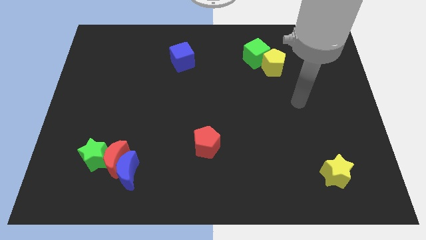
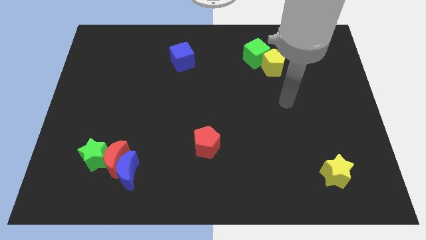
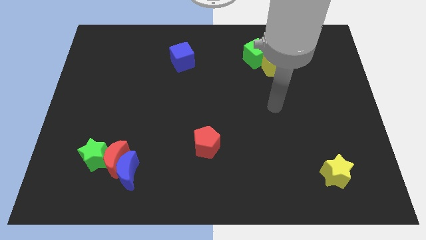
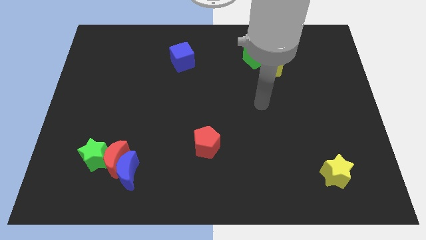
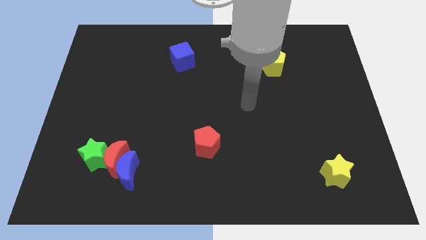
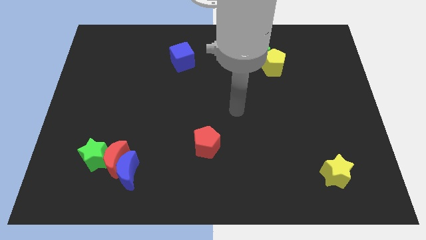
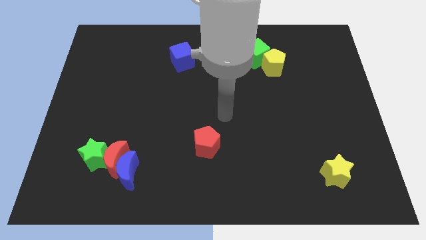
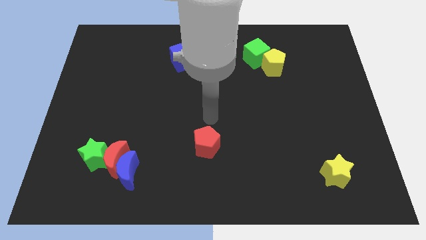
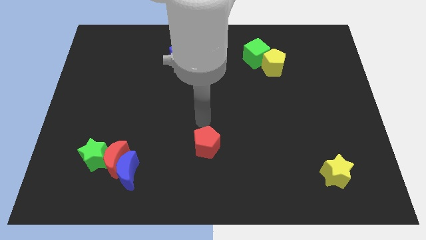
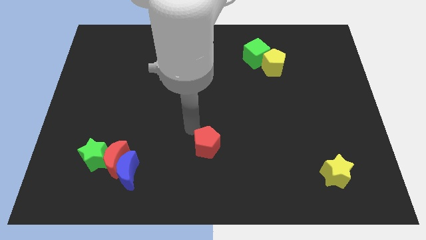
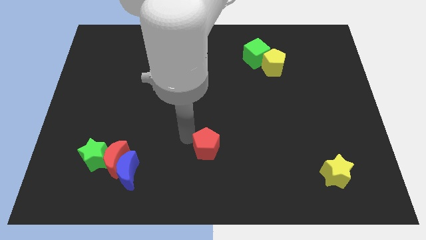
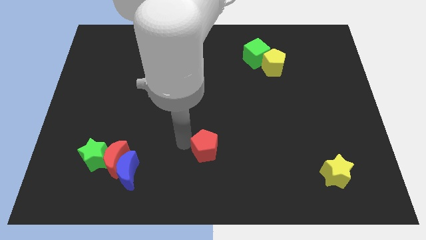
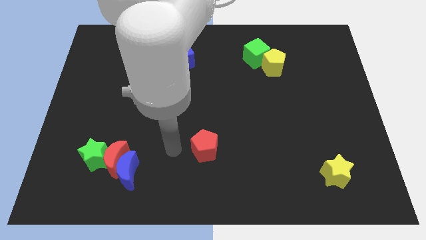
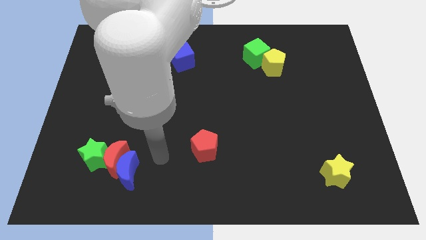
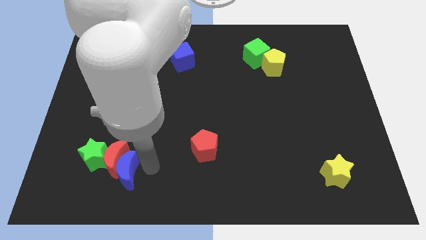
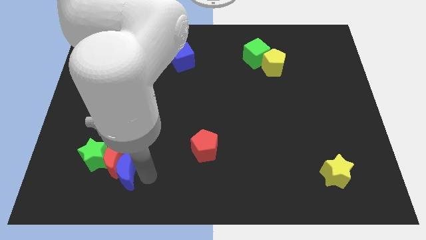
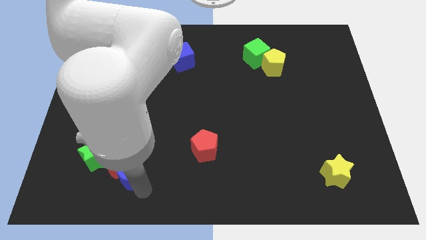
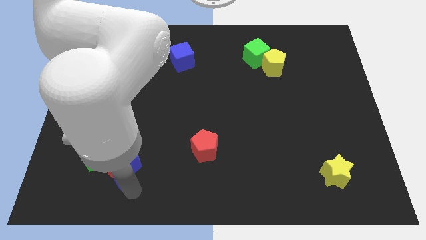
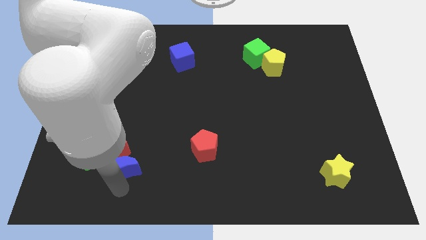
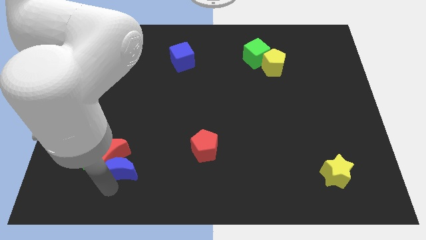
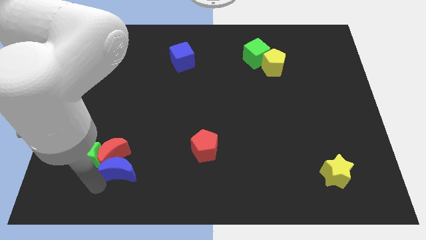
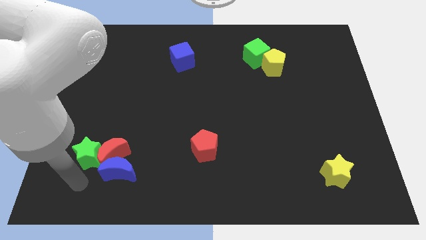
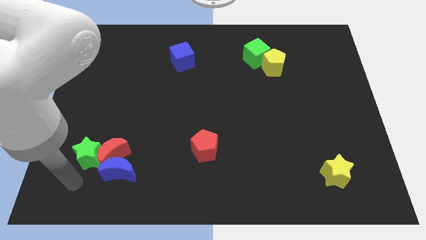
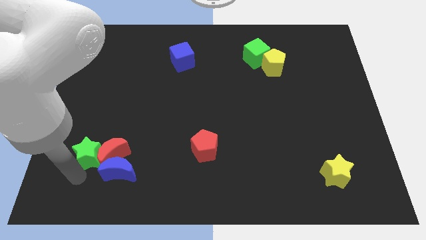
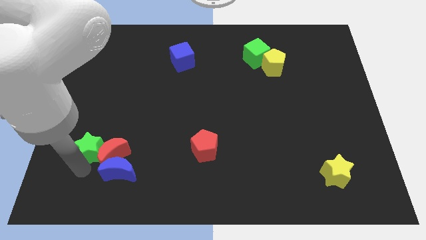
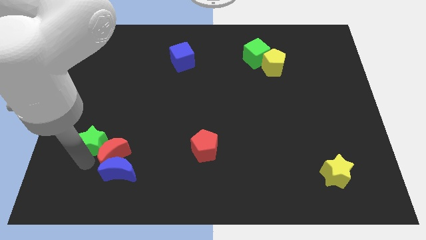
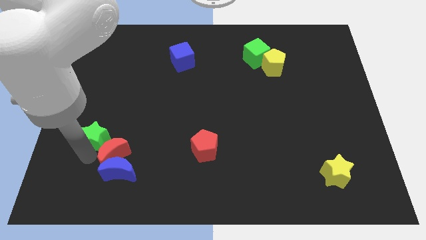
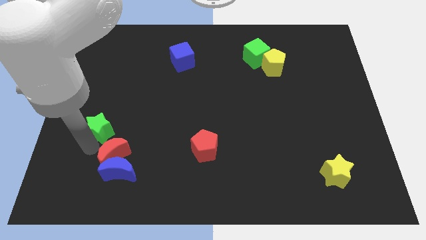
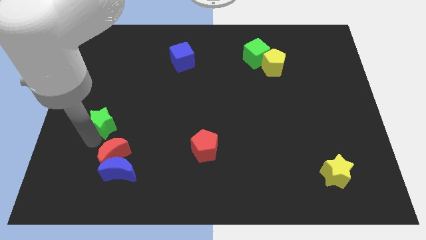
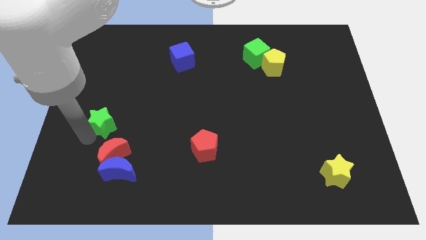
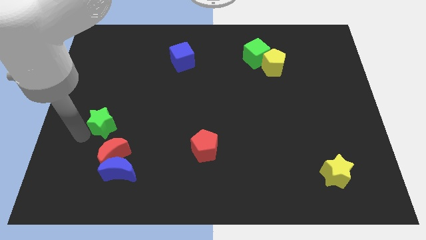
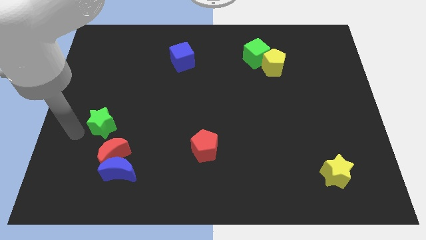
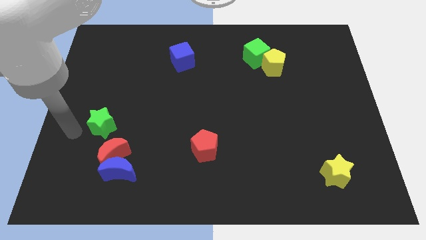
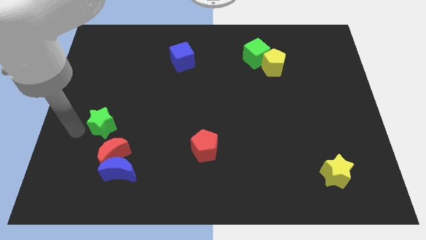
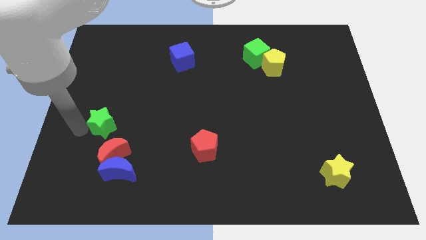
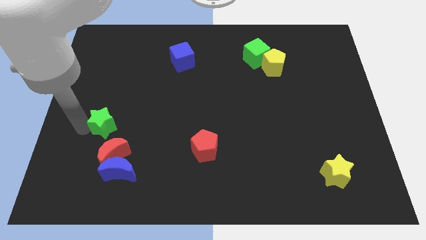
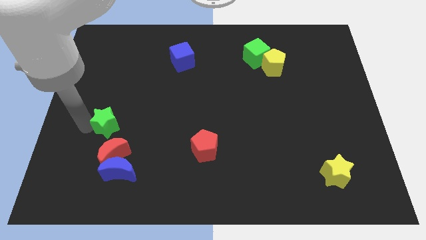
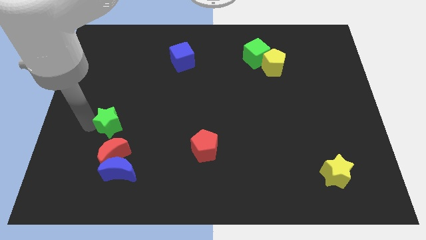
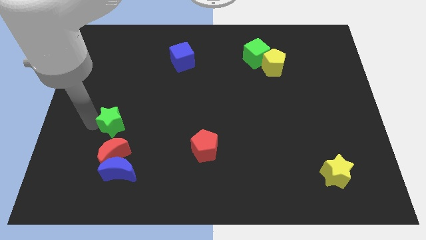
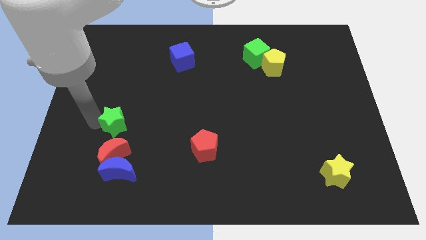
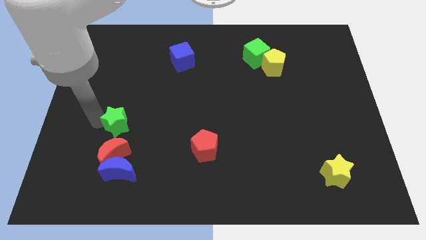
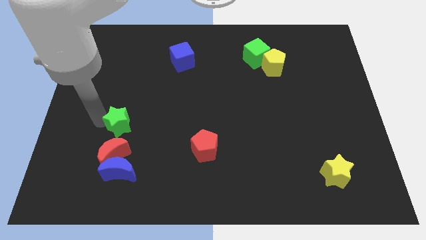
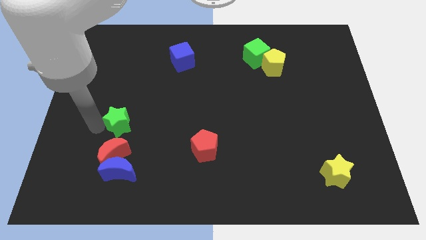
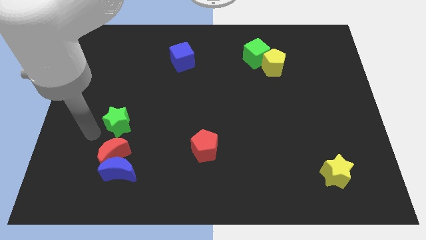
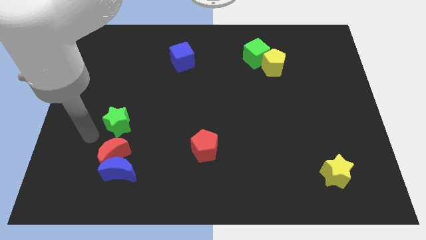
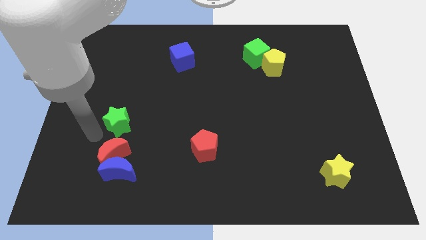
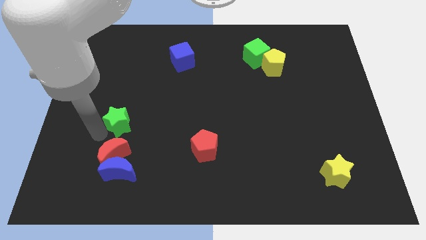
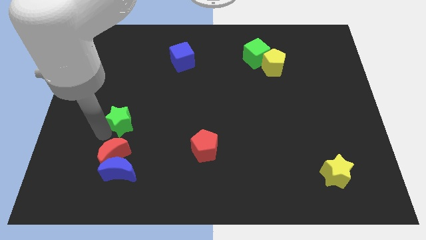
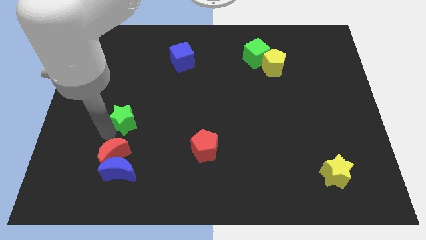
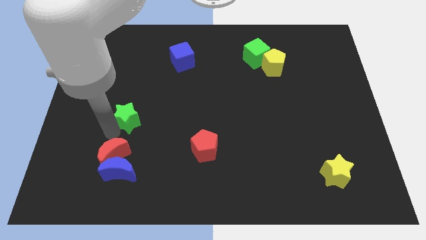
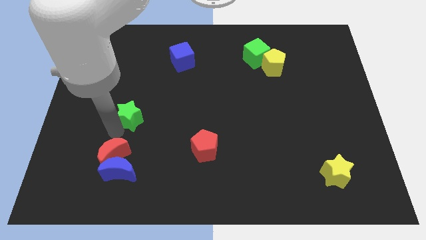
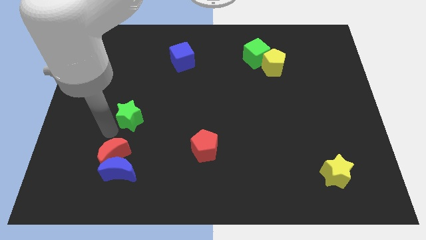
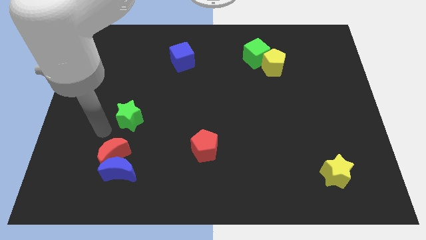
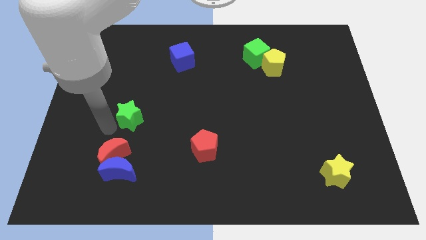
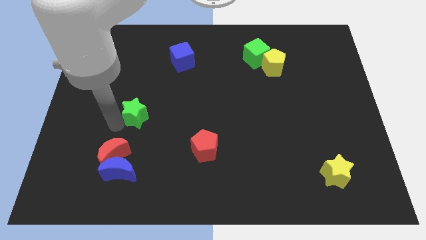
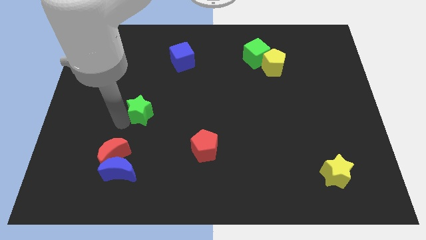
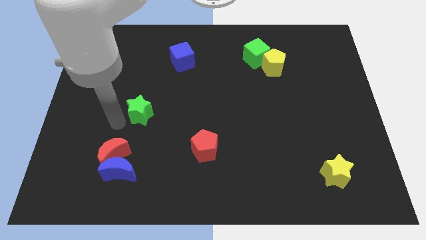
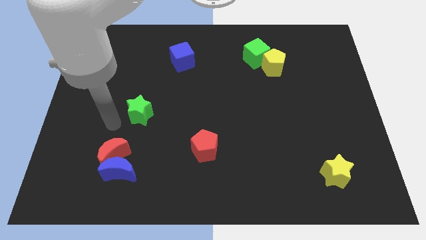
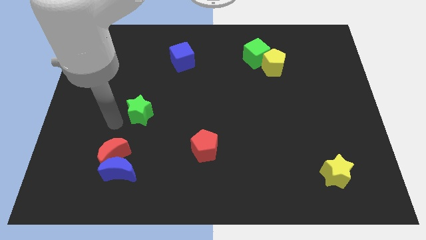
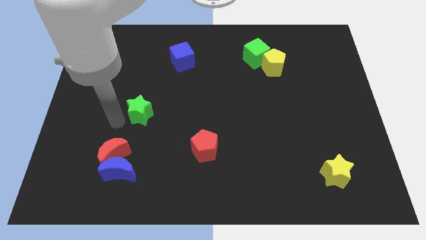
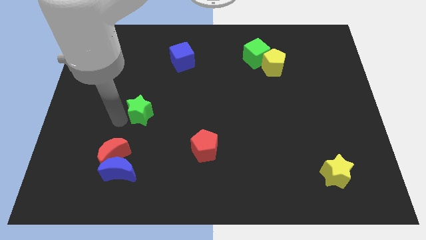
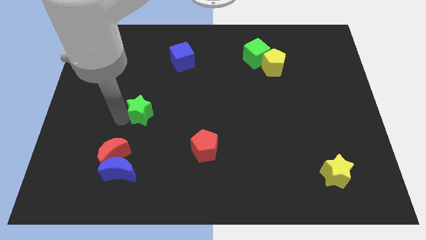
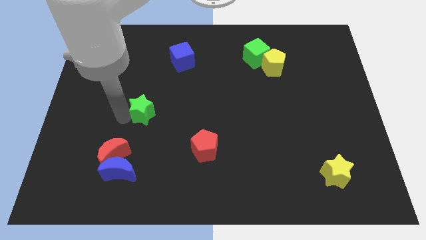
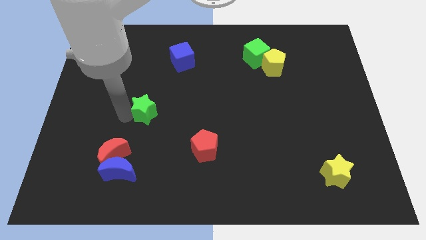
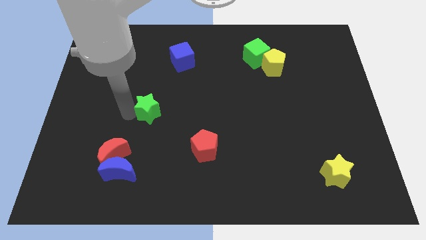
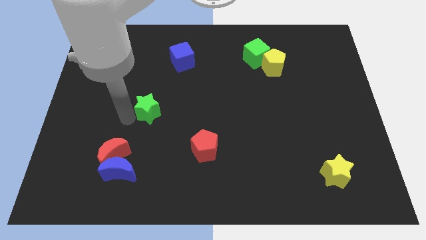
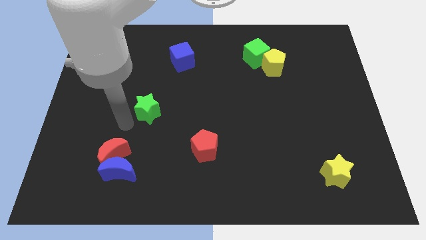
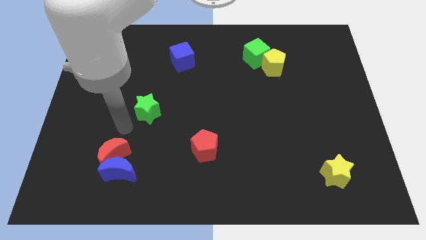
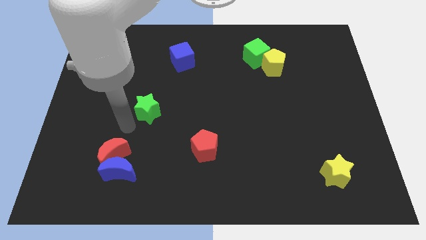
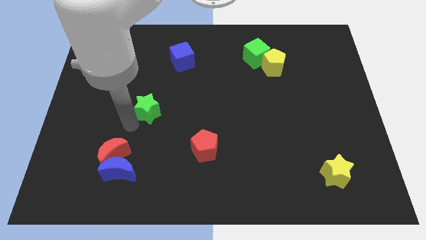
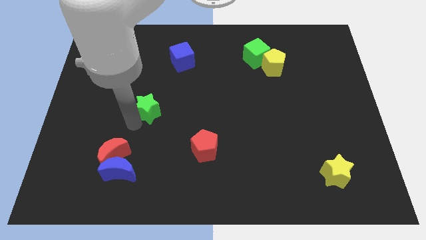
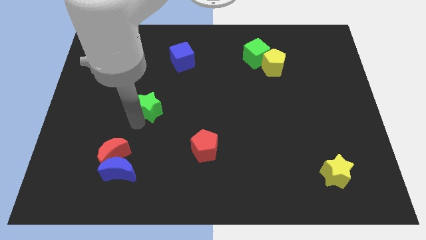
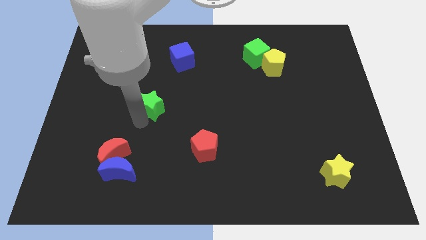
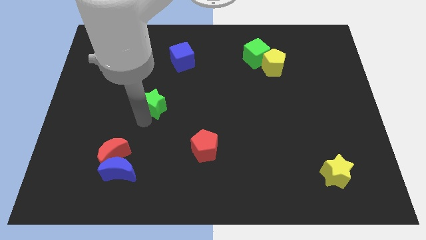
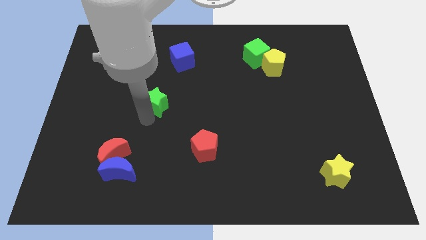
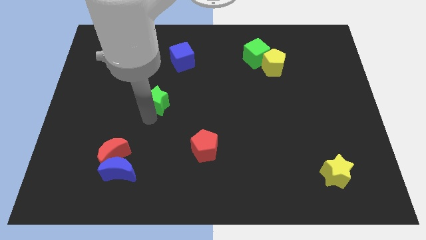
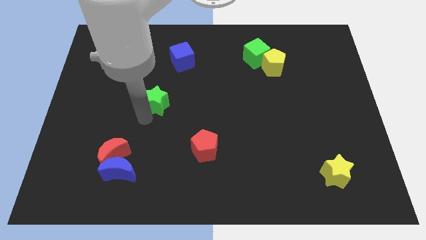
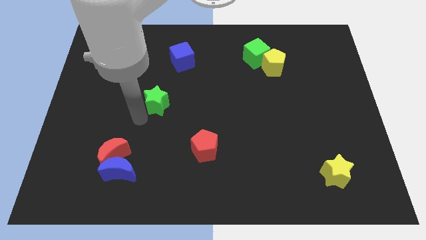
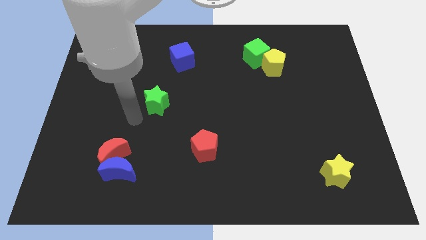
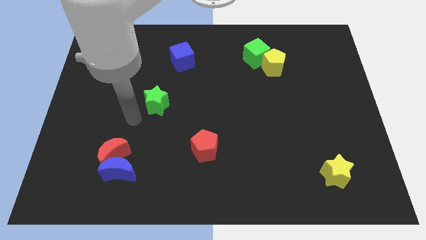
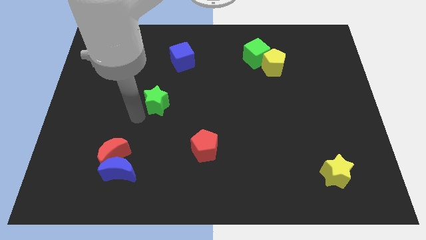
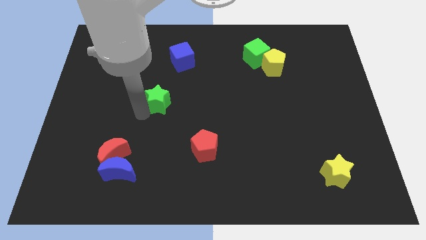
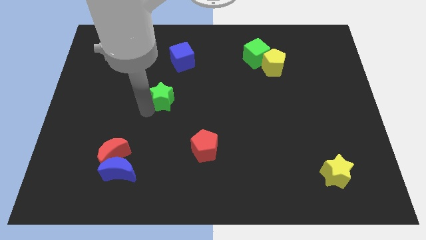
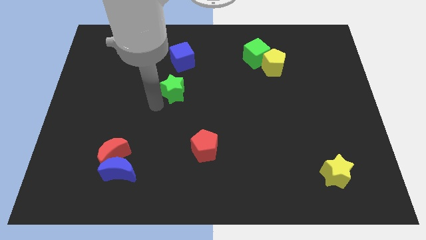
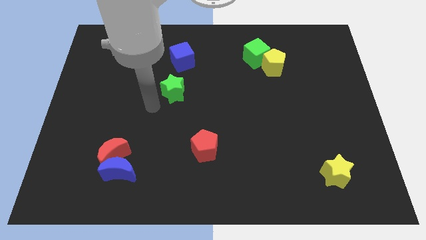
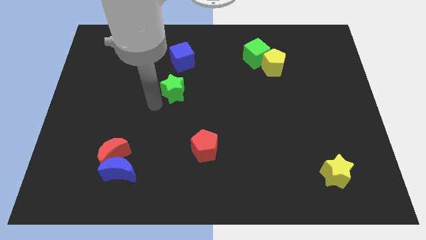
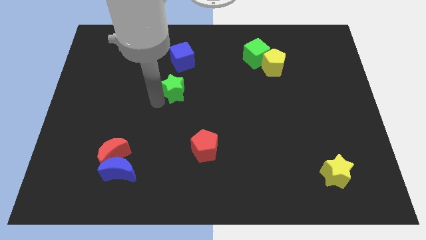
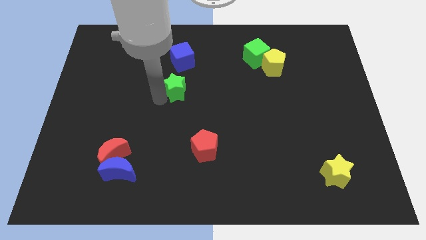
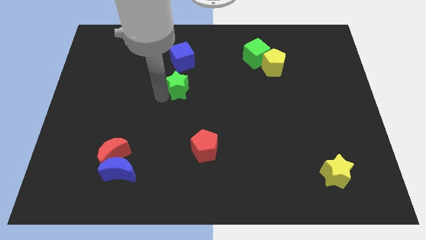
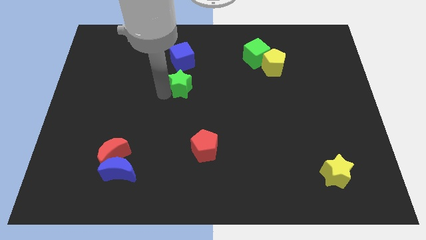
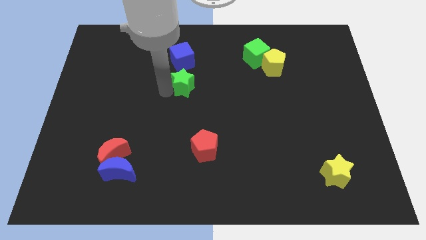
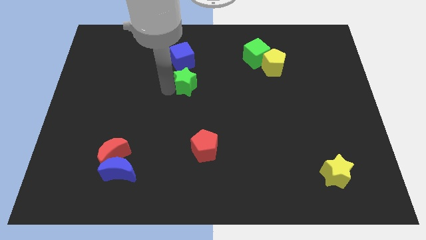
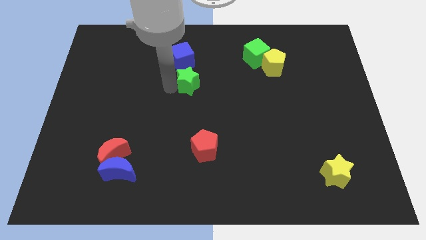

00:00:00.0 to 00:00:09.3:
slide the green star to the bottom right of the blue cube
